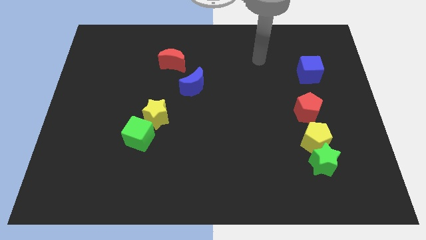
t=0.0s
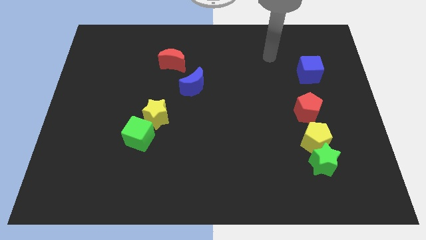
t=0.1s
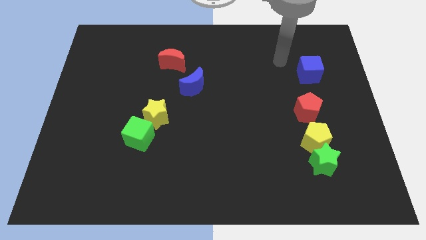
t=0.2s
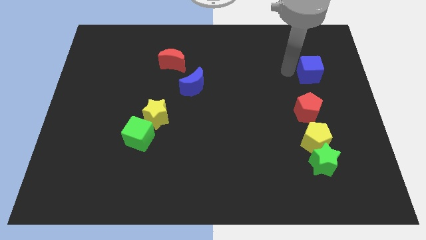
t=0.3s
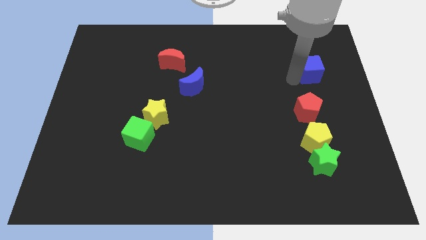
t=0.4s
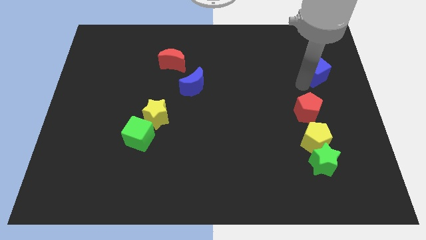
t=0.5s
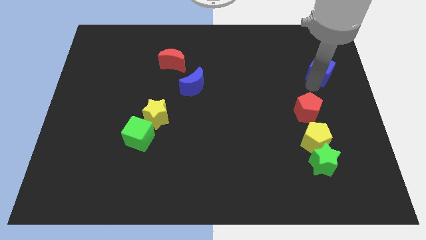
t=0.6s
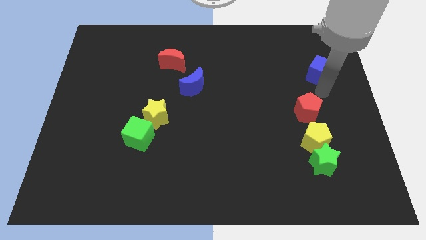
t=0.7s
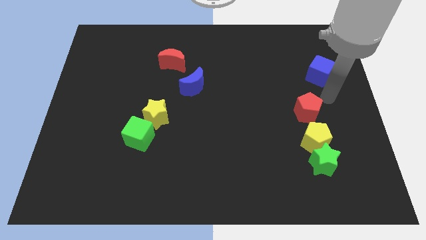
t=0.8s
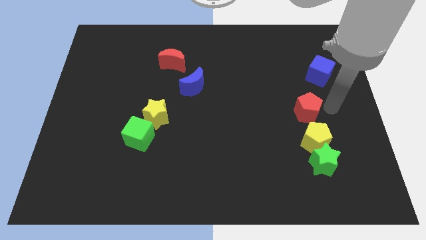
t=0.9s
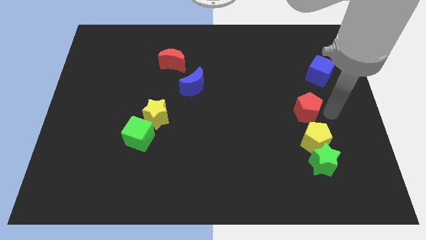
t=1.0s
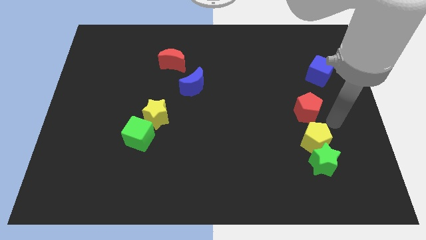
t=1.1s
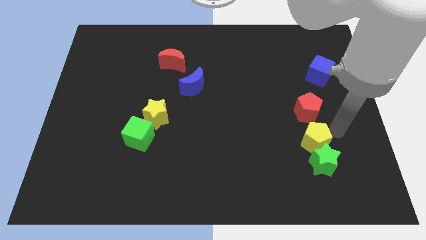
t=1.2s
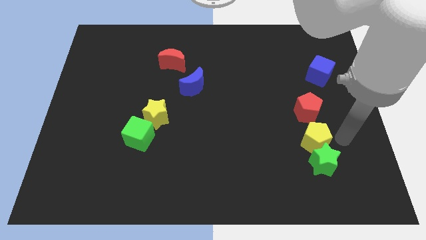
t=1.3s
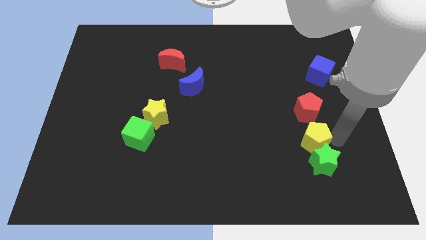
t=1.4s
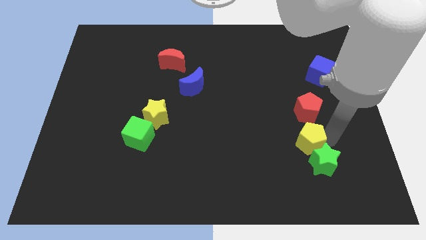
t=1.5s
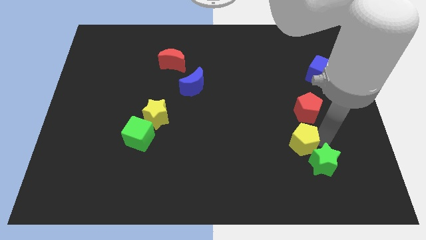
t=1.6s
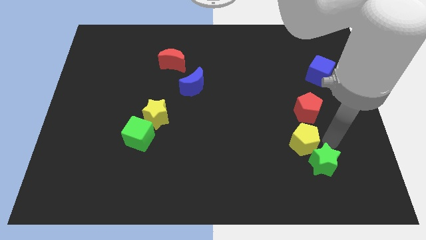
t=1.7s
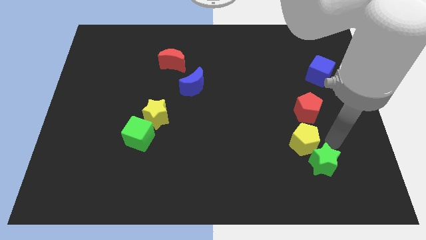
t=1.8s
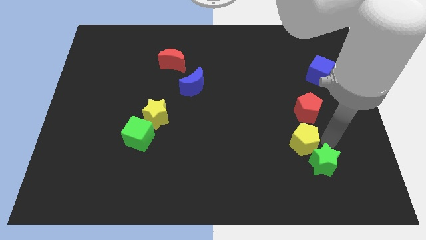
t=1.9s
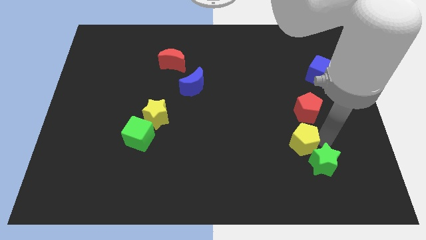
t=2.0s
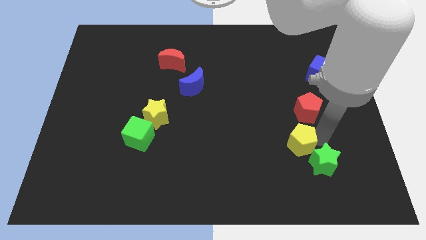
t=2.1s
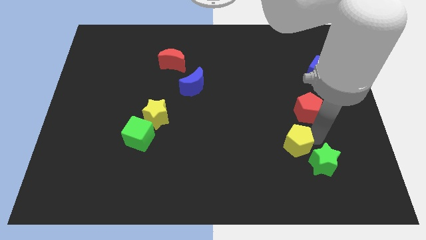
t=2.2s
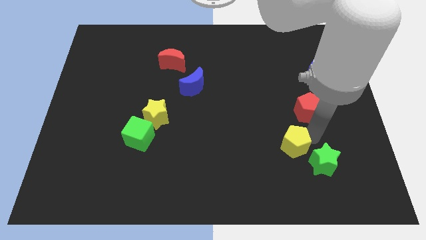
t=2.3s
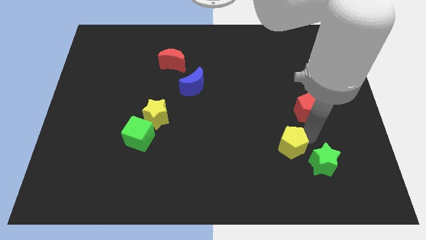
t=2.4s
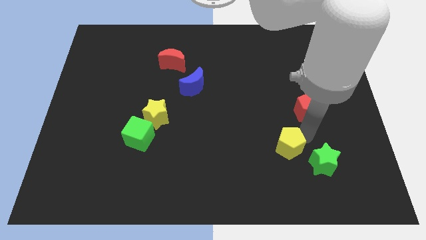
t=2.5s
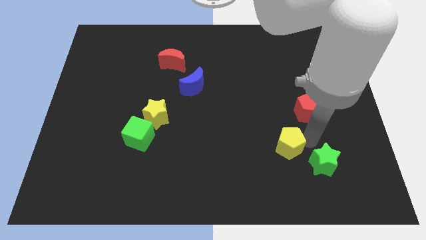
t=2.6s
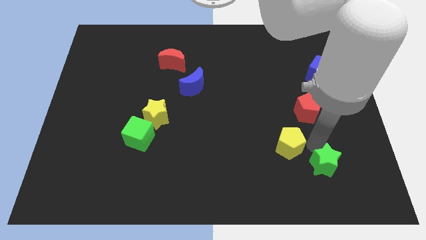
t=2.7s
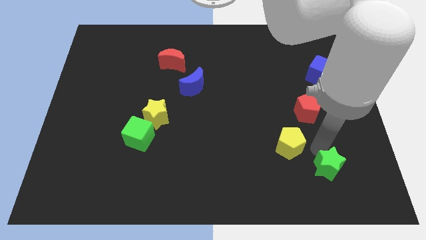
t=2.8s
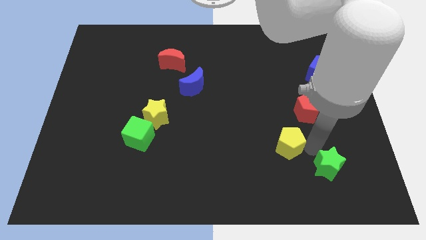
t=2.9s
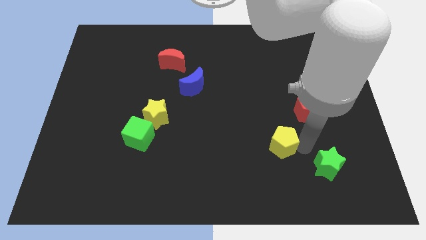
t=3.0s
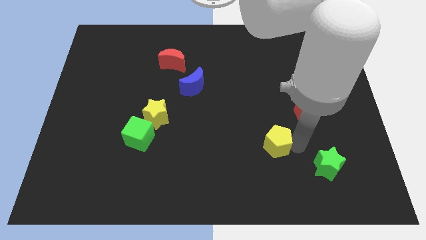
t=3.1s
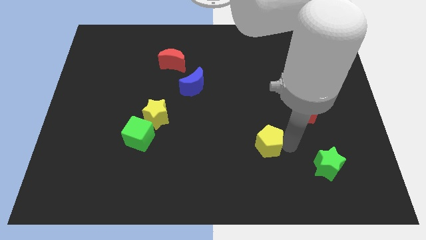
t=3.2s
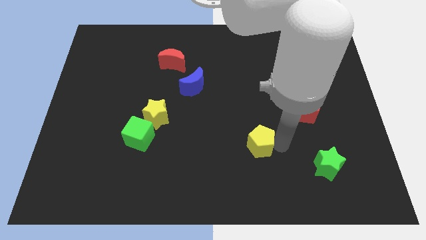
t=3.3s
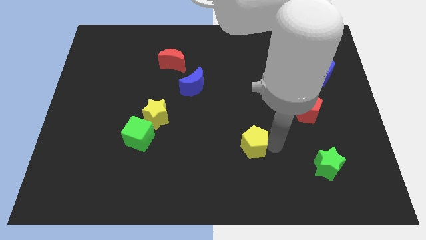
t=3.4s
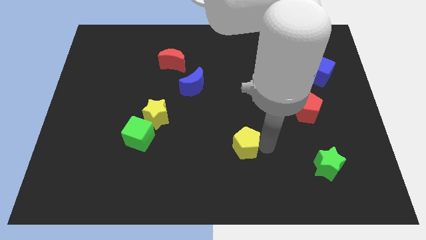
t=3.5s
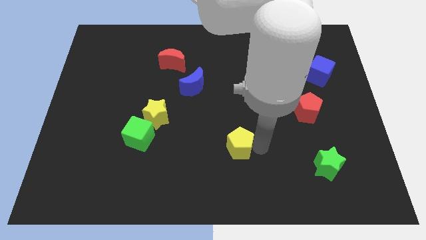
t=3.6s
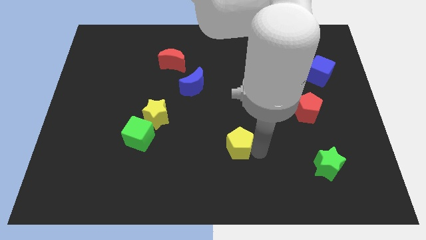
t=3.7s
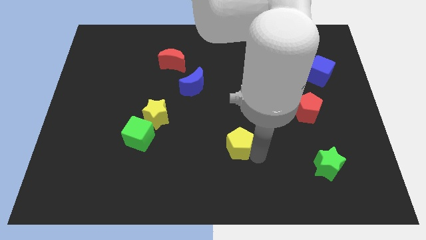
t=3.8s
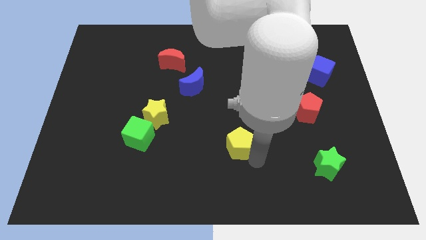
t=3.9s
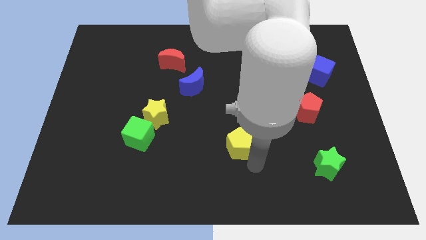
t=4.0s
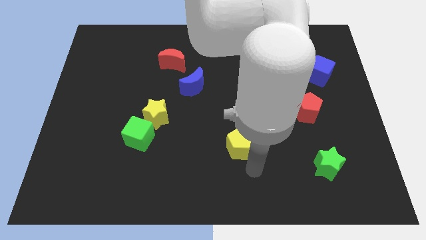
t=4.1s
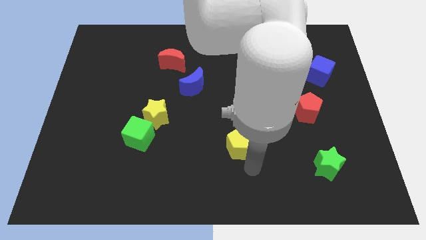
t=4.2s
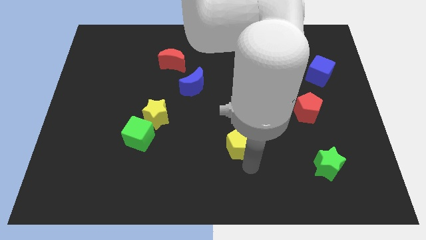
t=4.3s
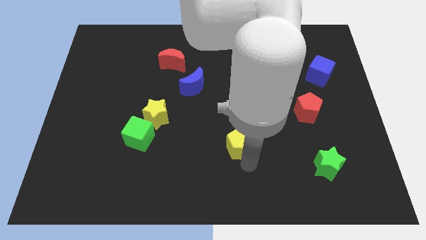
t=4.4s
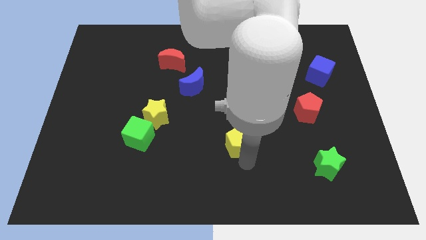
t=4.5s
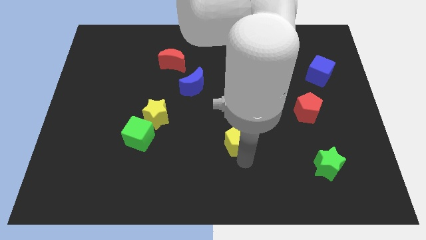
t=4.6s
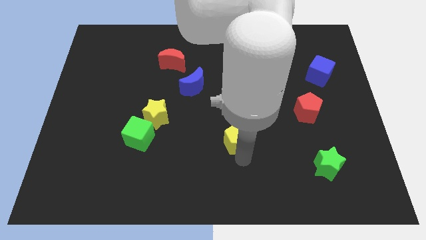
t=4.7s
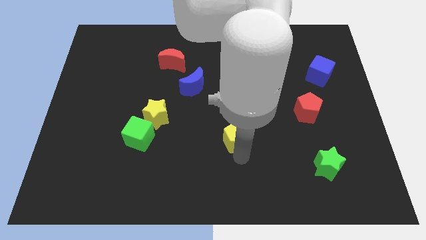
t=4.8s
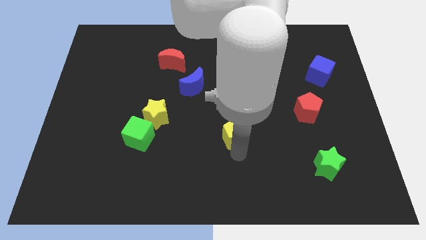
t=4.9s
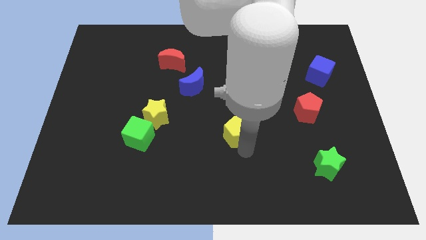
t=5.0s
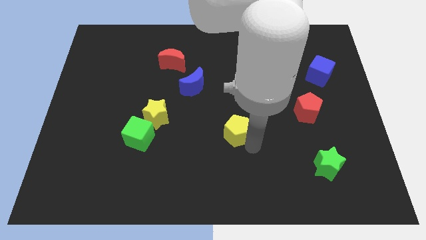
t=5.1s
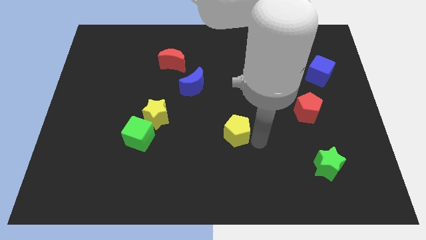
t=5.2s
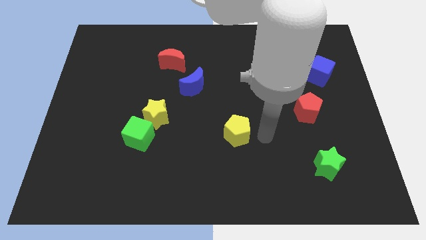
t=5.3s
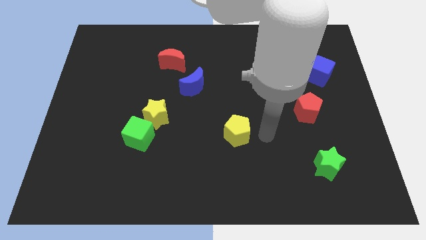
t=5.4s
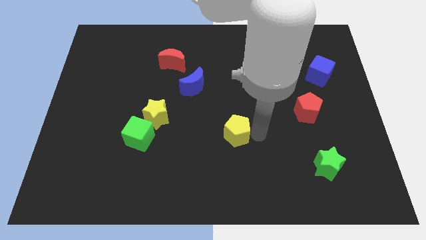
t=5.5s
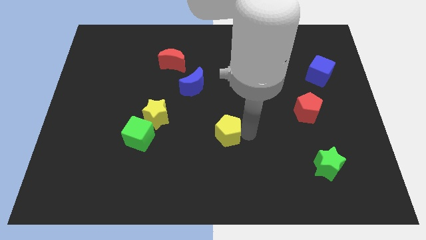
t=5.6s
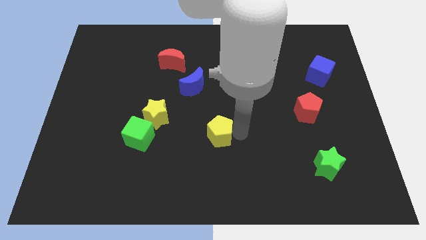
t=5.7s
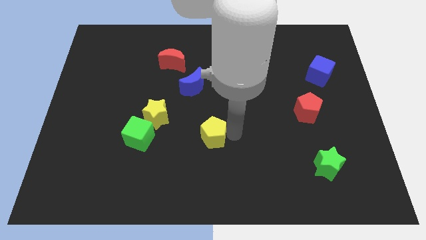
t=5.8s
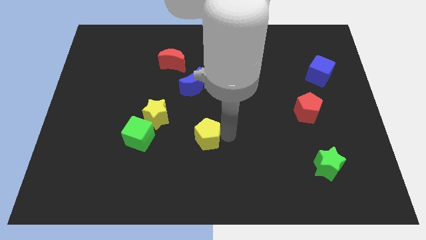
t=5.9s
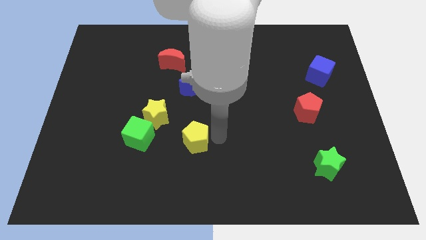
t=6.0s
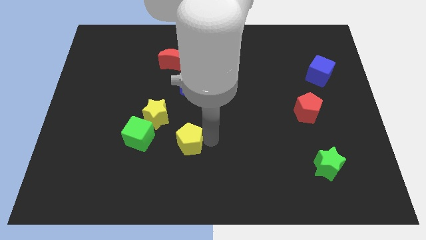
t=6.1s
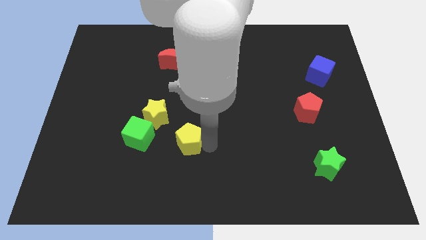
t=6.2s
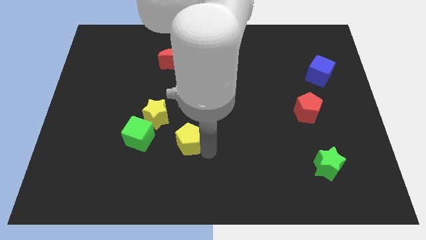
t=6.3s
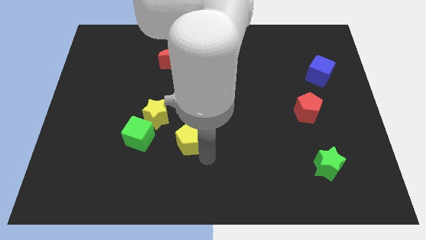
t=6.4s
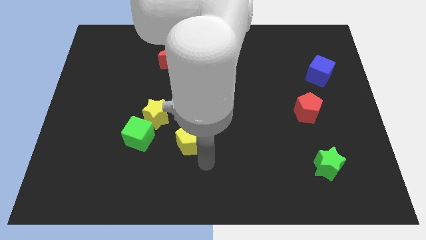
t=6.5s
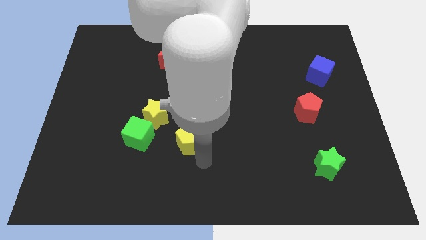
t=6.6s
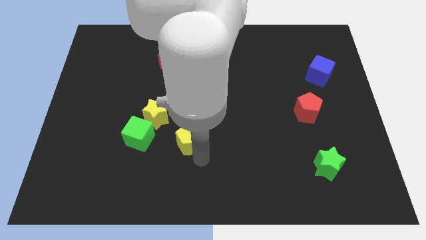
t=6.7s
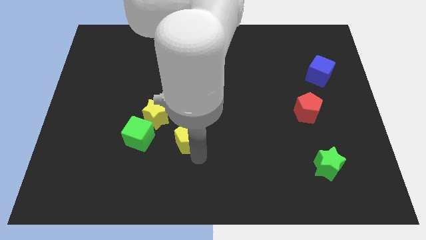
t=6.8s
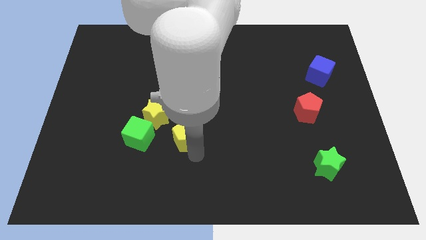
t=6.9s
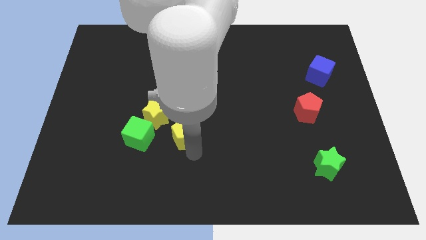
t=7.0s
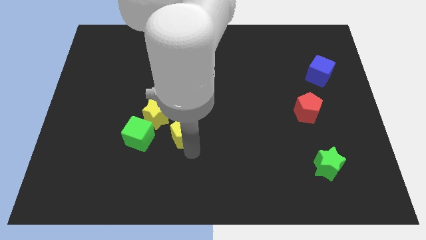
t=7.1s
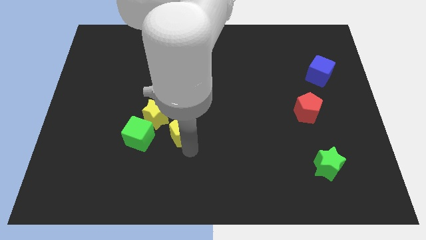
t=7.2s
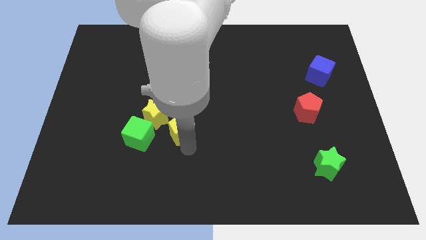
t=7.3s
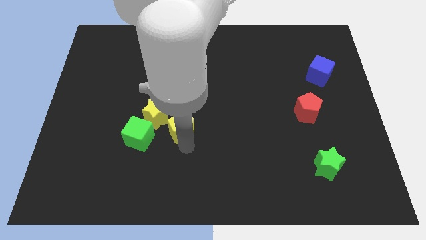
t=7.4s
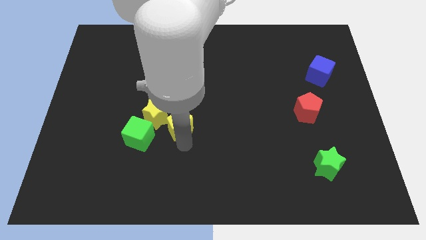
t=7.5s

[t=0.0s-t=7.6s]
push the yellow pentagon towards the yellow star
